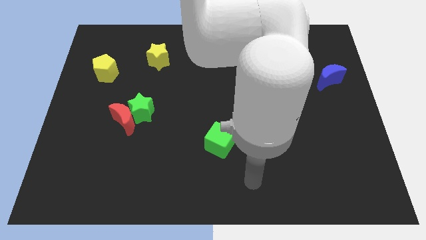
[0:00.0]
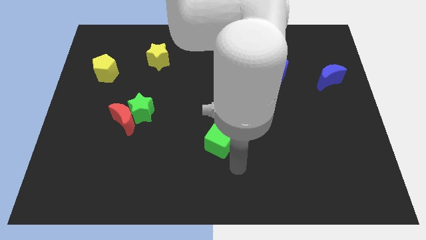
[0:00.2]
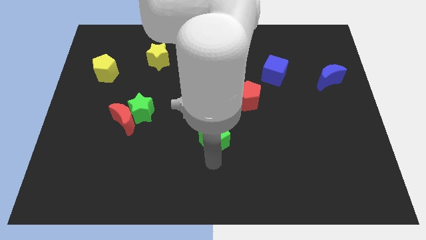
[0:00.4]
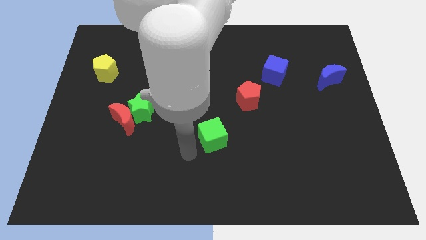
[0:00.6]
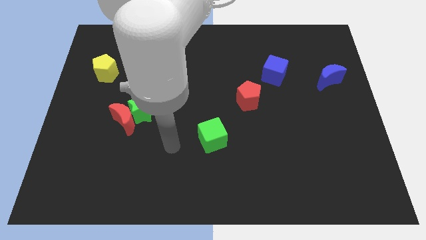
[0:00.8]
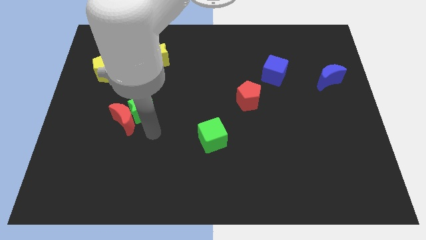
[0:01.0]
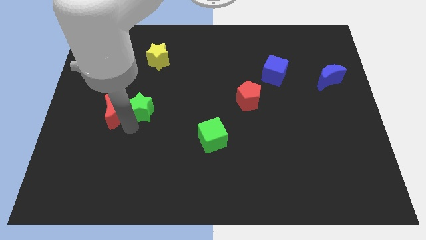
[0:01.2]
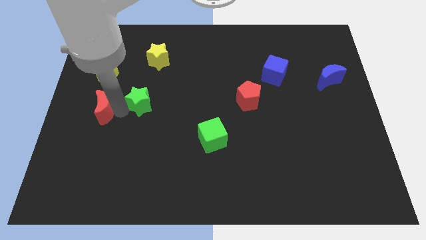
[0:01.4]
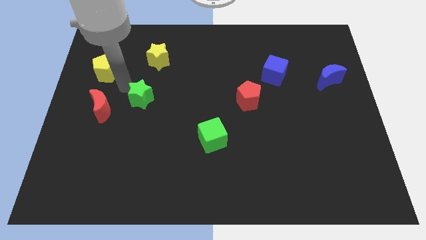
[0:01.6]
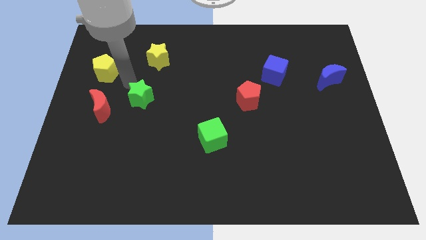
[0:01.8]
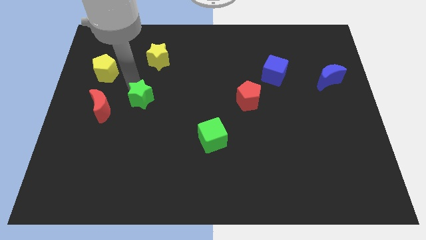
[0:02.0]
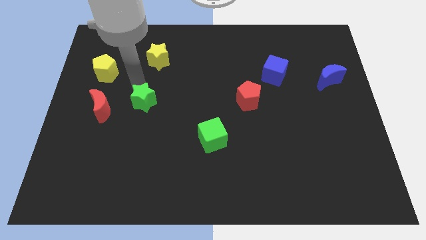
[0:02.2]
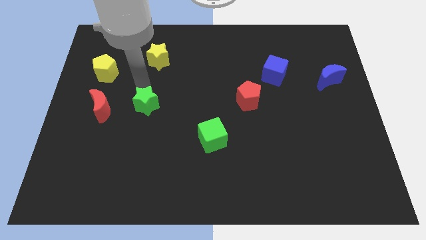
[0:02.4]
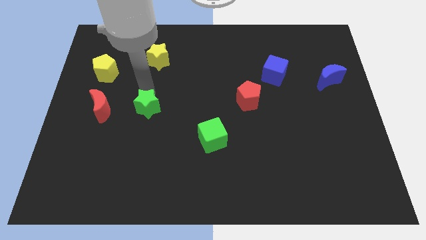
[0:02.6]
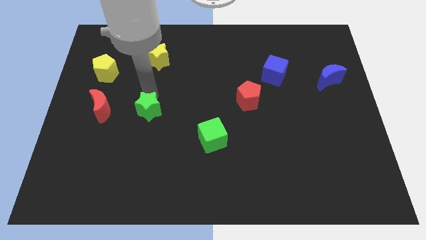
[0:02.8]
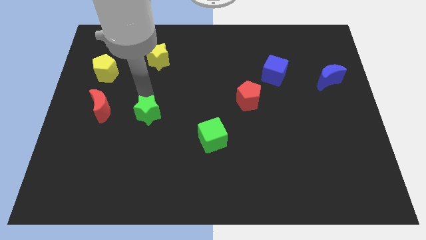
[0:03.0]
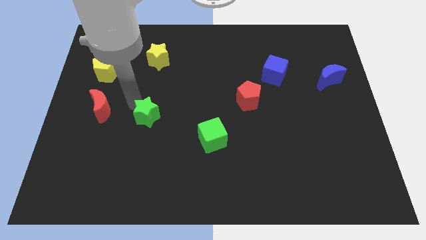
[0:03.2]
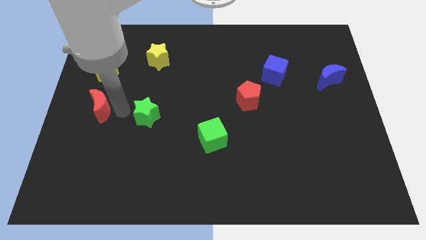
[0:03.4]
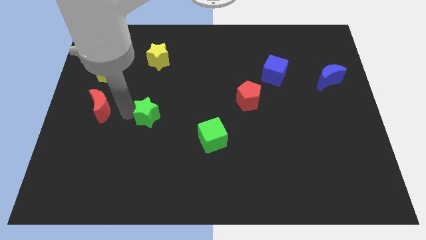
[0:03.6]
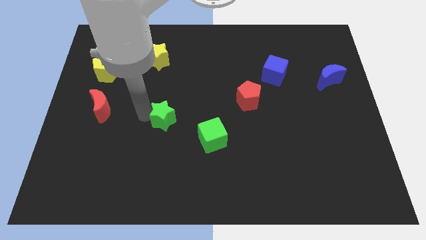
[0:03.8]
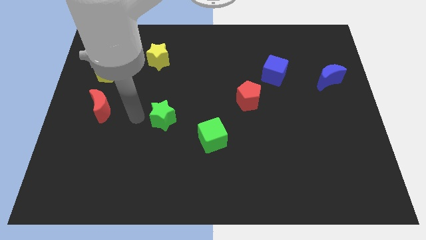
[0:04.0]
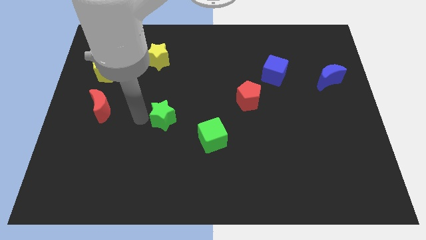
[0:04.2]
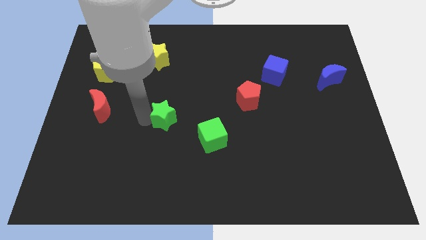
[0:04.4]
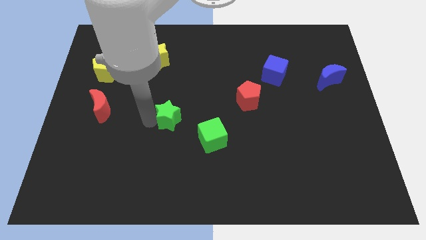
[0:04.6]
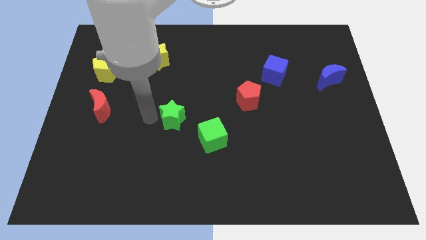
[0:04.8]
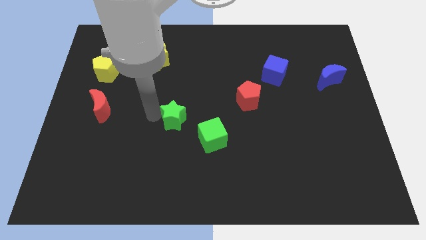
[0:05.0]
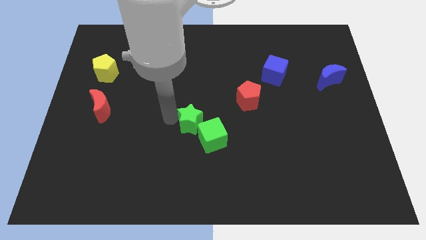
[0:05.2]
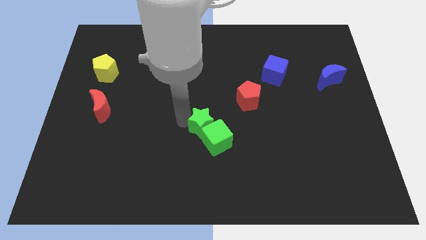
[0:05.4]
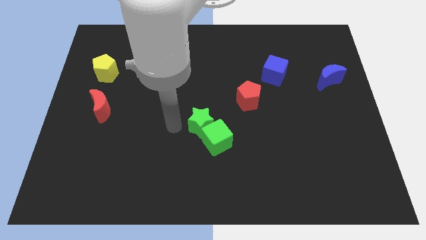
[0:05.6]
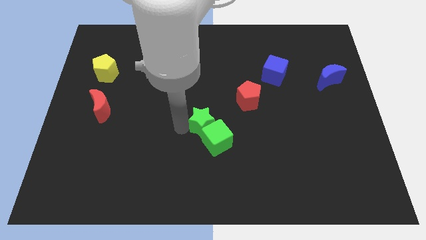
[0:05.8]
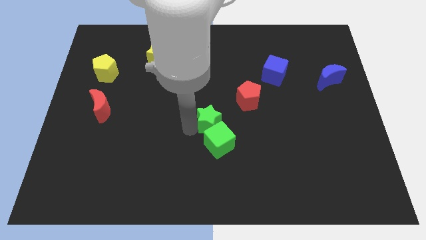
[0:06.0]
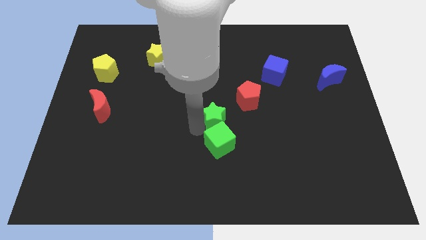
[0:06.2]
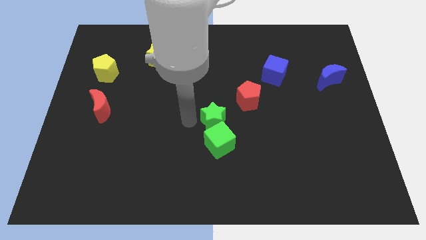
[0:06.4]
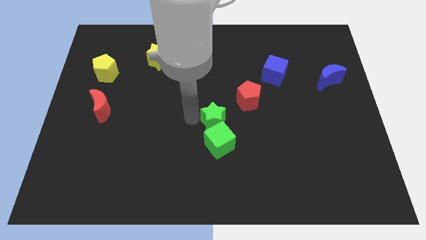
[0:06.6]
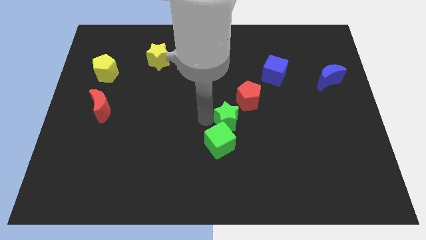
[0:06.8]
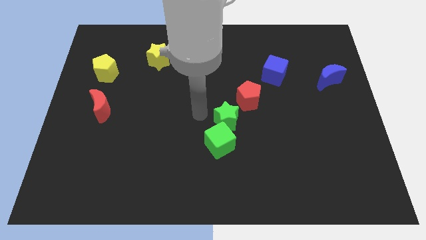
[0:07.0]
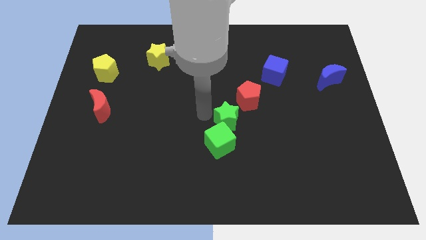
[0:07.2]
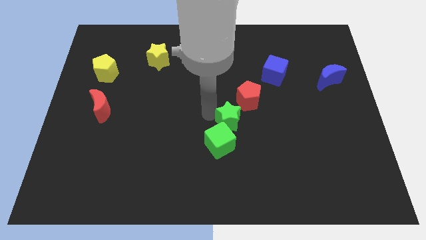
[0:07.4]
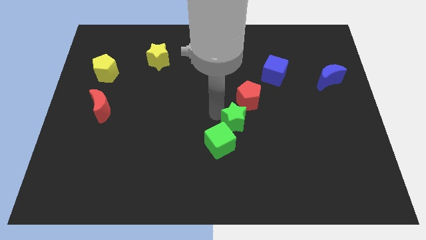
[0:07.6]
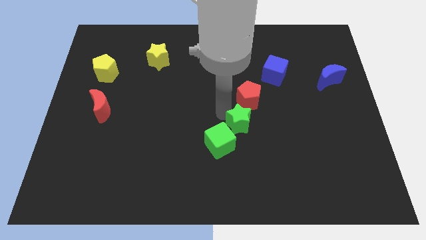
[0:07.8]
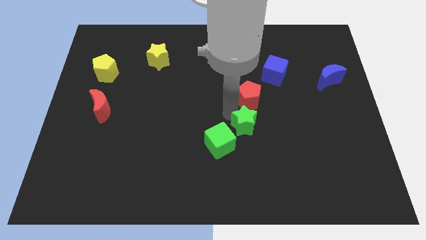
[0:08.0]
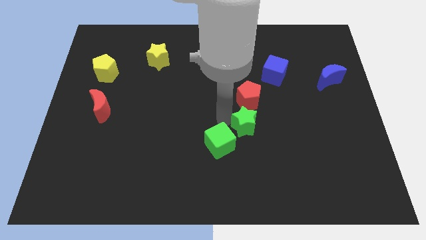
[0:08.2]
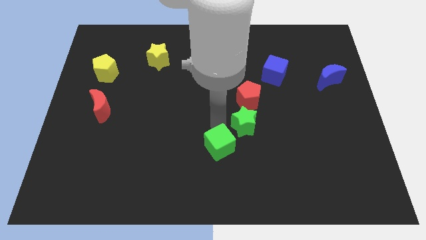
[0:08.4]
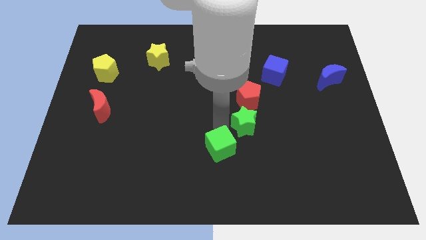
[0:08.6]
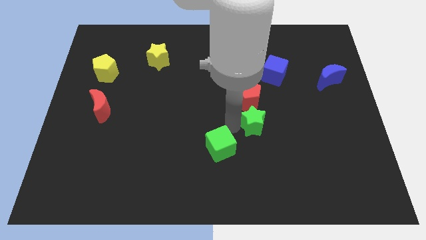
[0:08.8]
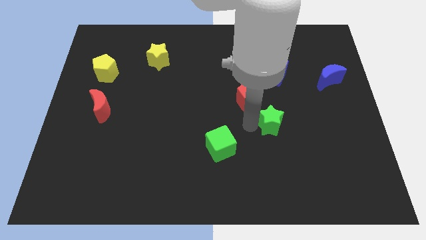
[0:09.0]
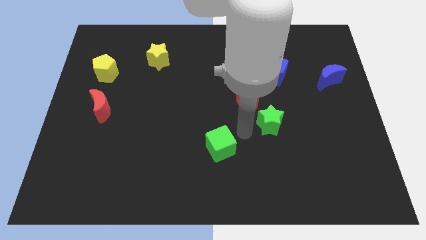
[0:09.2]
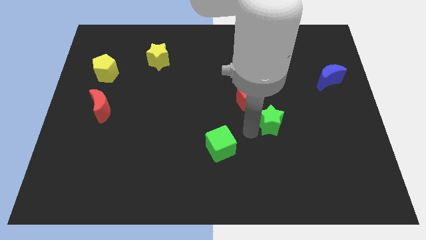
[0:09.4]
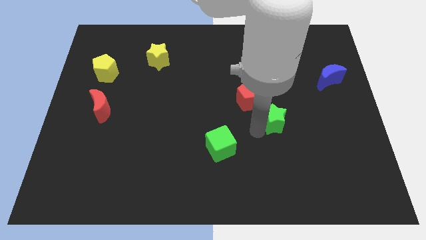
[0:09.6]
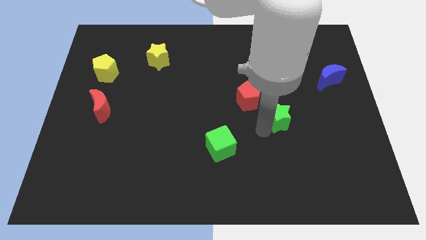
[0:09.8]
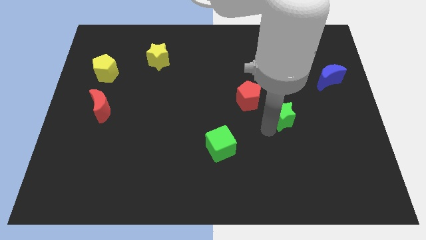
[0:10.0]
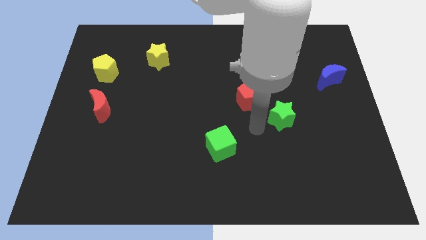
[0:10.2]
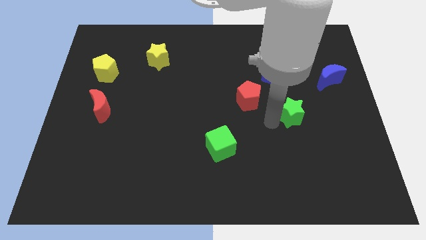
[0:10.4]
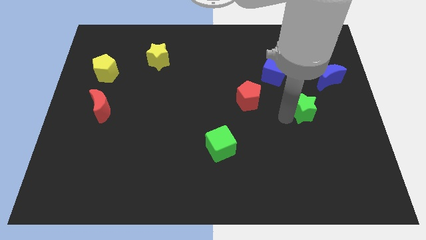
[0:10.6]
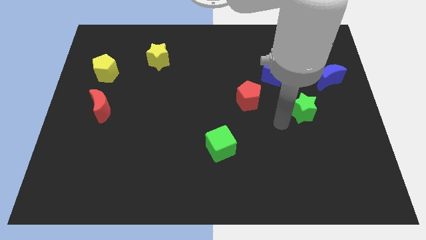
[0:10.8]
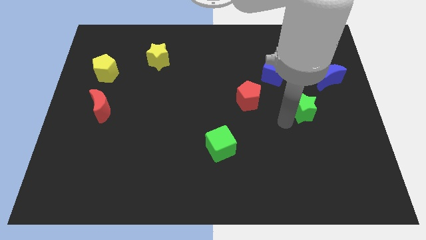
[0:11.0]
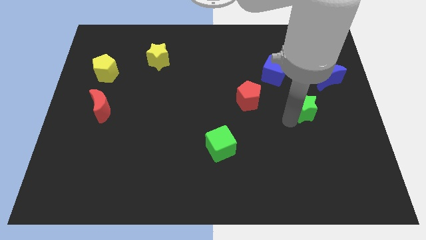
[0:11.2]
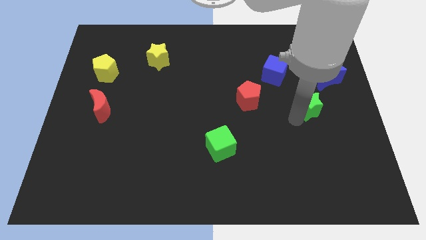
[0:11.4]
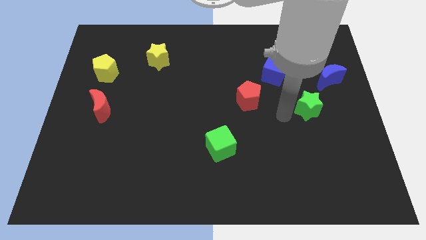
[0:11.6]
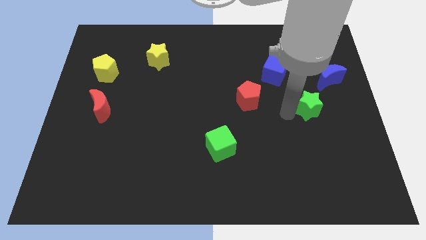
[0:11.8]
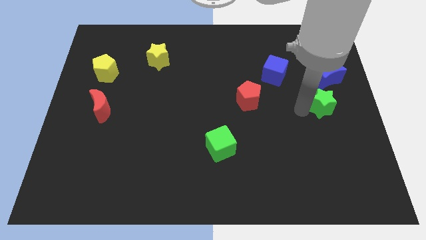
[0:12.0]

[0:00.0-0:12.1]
put the green star to the right side of the board
